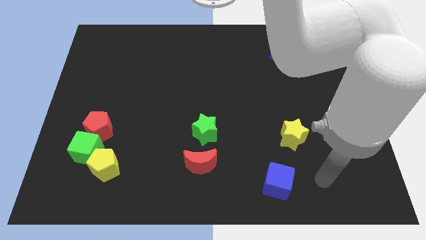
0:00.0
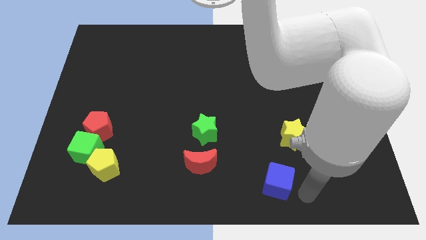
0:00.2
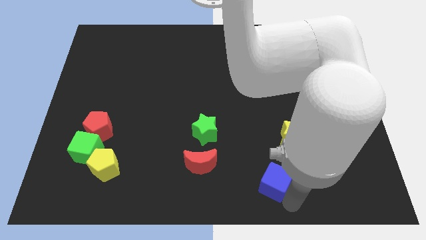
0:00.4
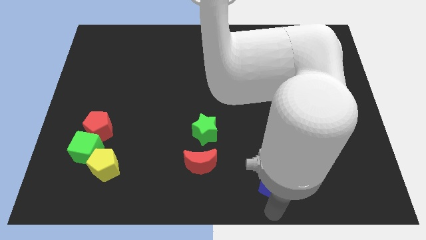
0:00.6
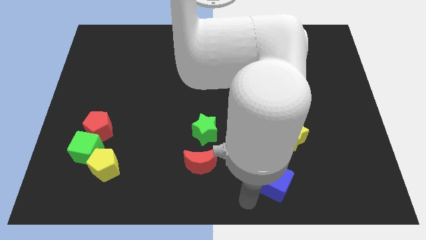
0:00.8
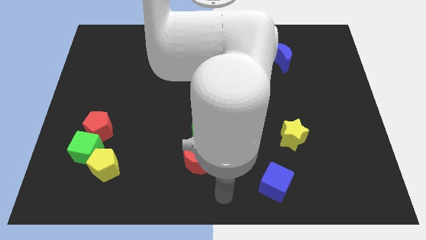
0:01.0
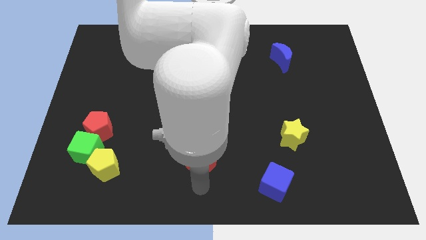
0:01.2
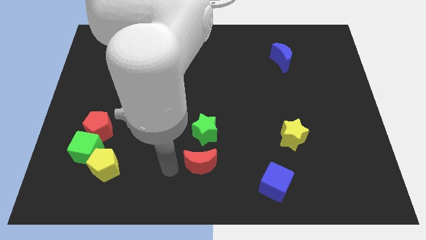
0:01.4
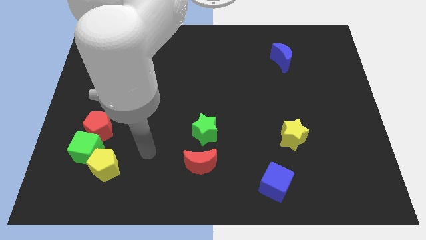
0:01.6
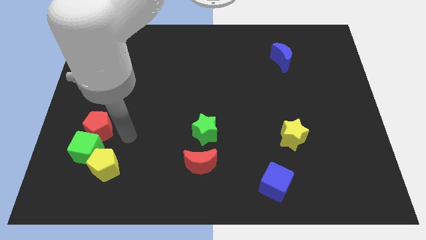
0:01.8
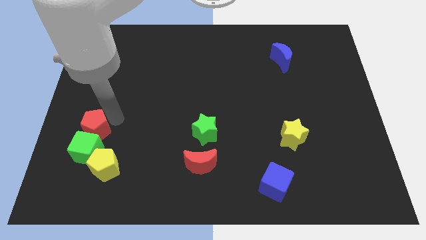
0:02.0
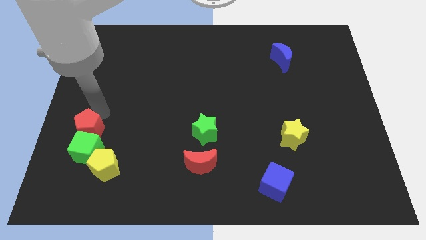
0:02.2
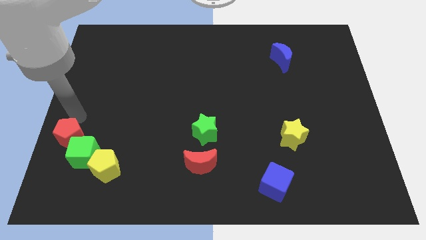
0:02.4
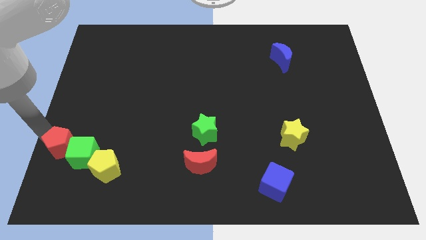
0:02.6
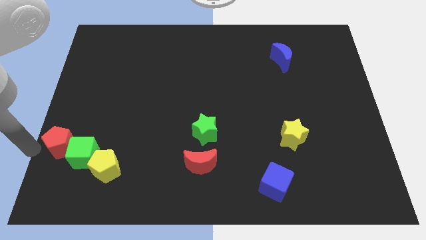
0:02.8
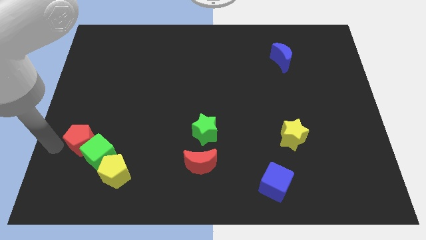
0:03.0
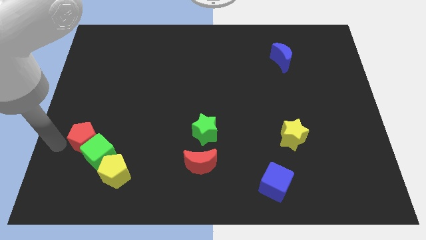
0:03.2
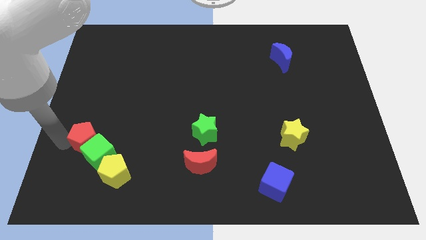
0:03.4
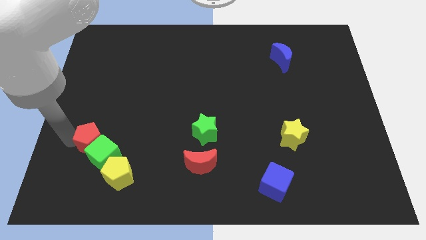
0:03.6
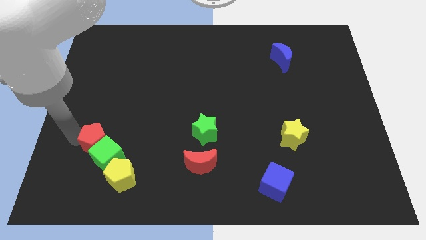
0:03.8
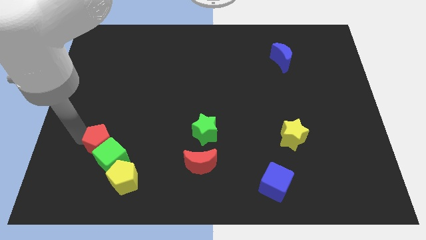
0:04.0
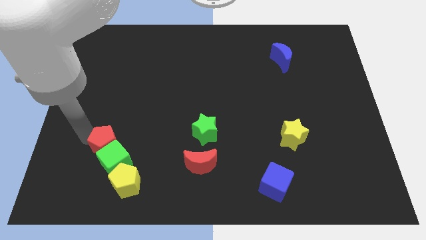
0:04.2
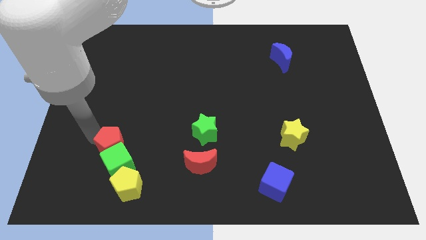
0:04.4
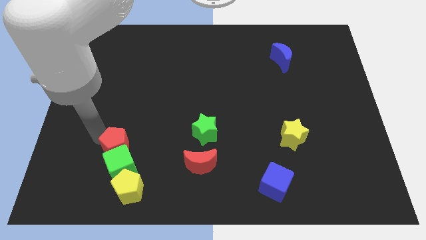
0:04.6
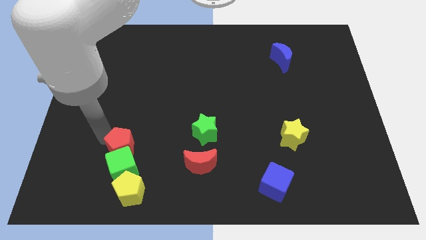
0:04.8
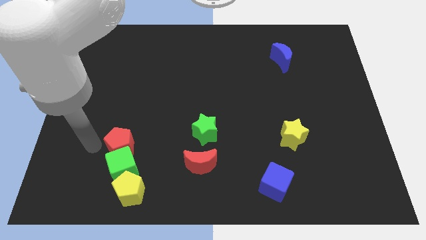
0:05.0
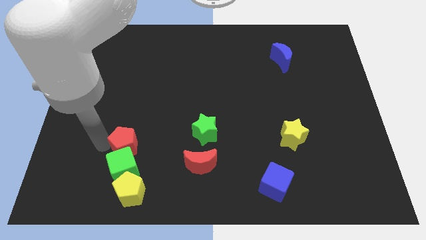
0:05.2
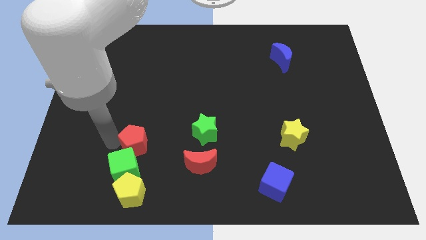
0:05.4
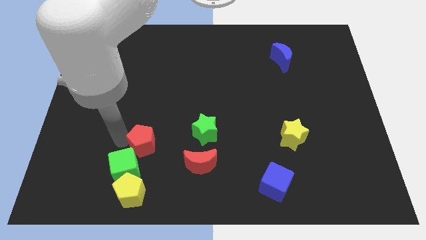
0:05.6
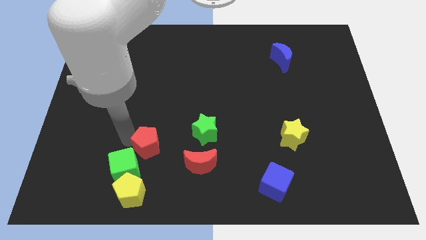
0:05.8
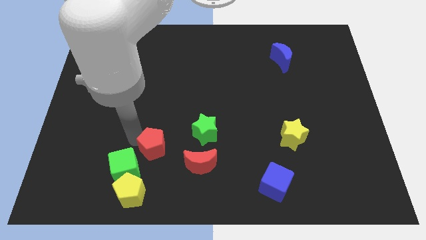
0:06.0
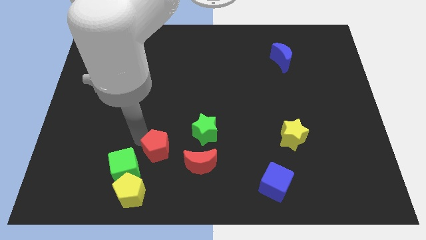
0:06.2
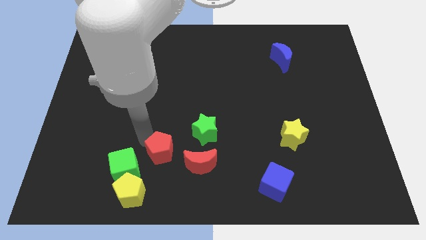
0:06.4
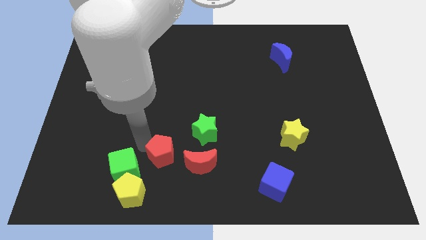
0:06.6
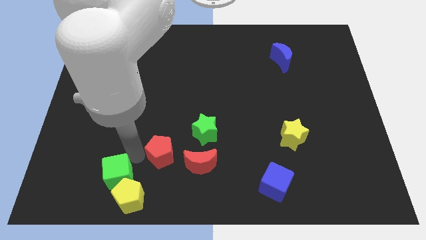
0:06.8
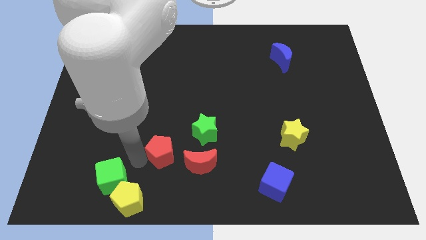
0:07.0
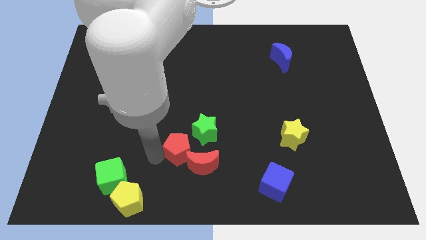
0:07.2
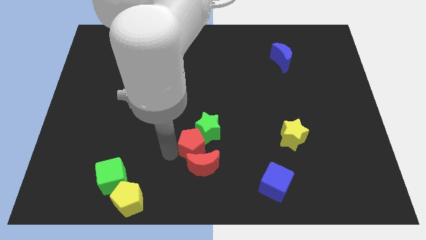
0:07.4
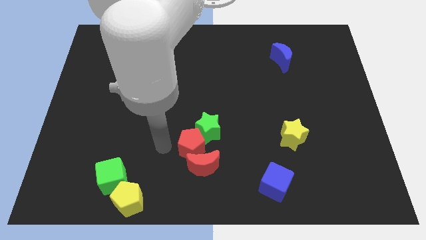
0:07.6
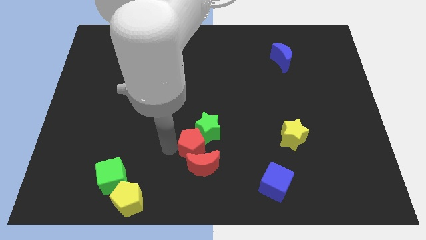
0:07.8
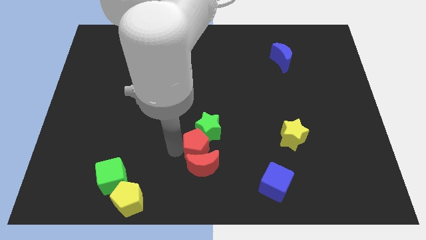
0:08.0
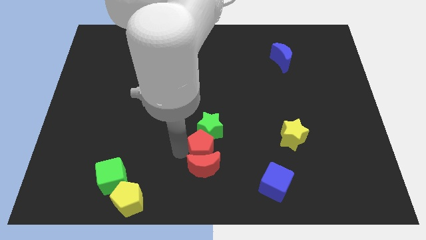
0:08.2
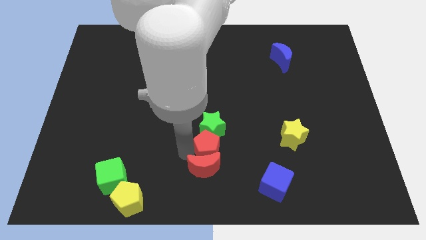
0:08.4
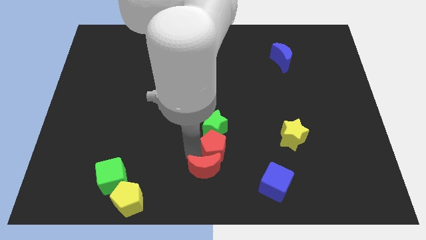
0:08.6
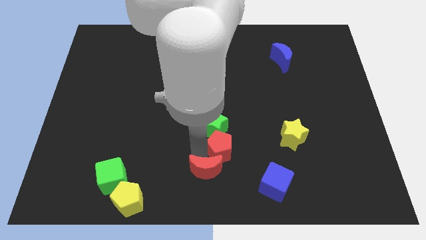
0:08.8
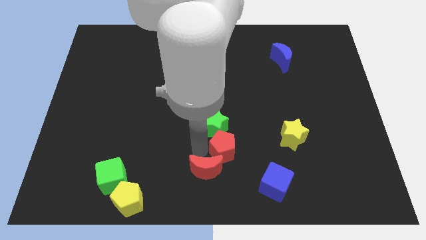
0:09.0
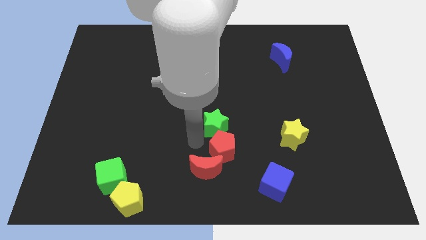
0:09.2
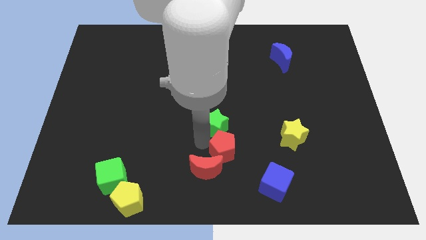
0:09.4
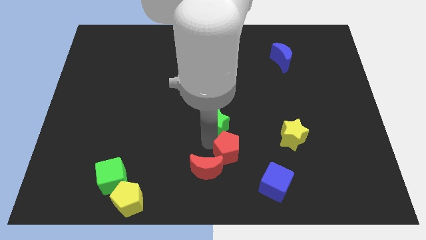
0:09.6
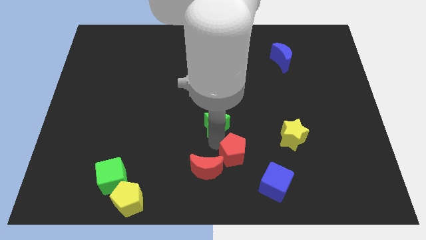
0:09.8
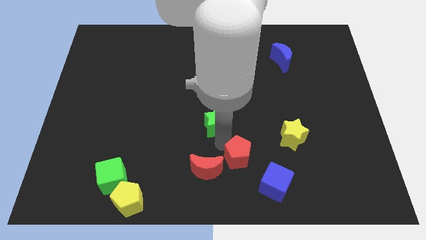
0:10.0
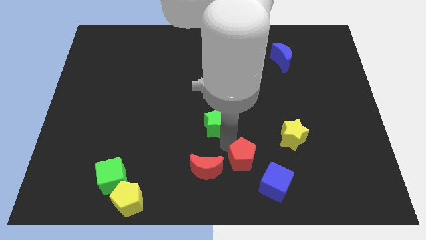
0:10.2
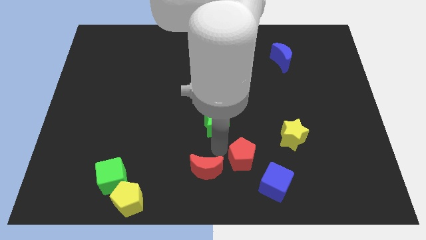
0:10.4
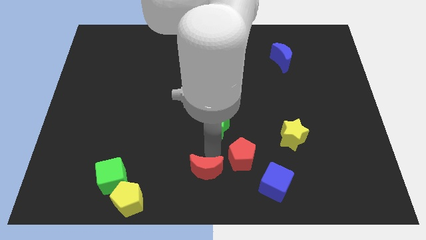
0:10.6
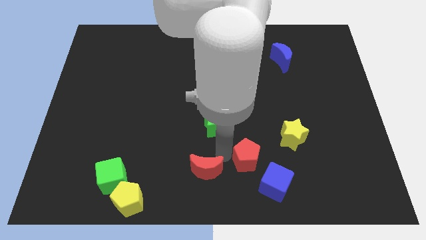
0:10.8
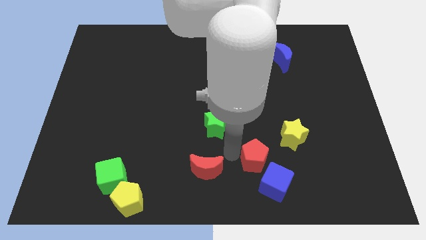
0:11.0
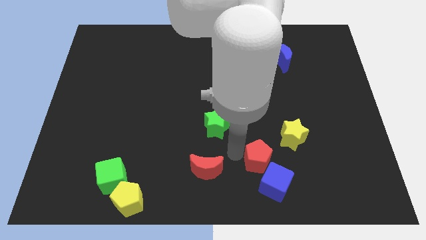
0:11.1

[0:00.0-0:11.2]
push the red pentagon close to the blue cube

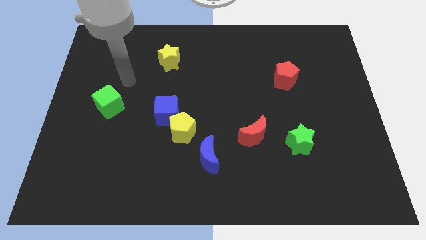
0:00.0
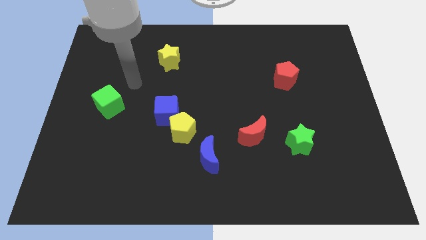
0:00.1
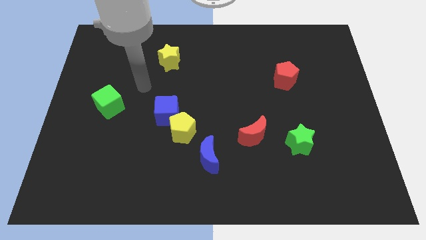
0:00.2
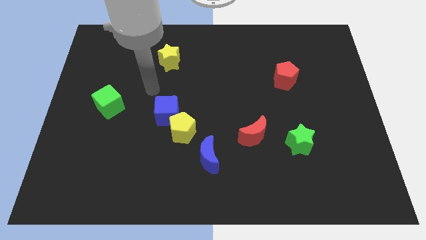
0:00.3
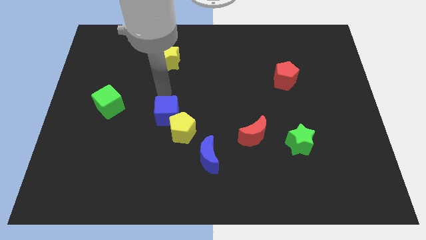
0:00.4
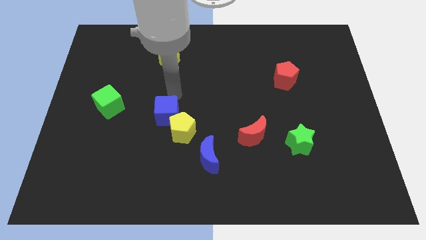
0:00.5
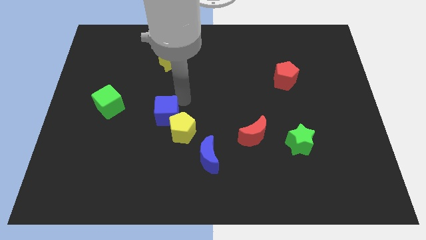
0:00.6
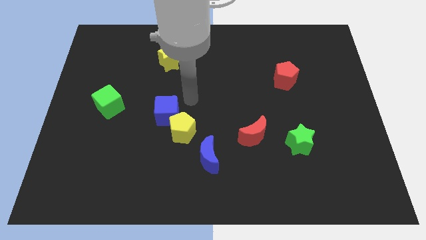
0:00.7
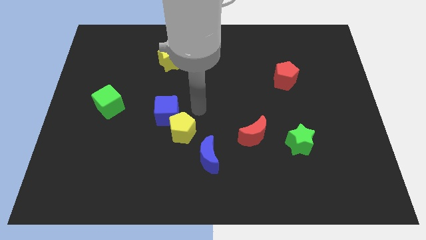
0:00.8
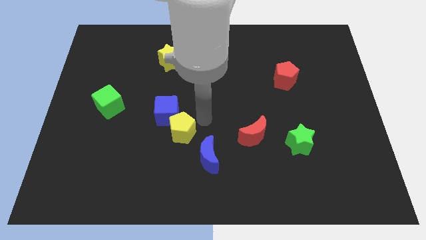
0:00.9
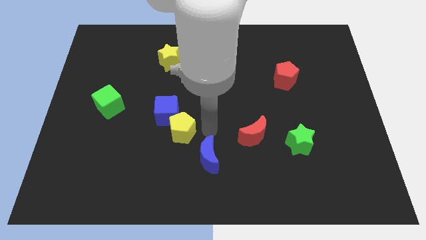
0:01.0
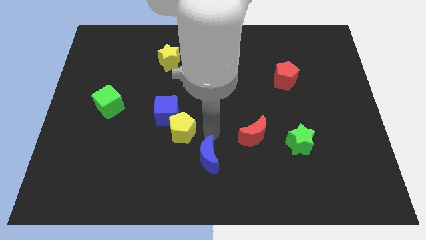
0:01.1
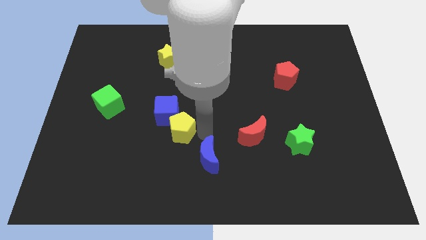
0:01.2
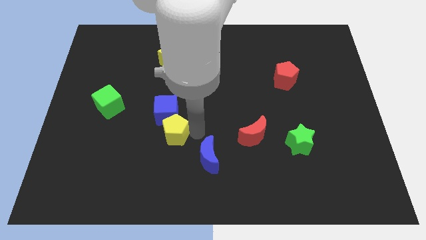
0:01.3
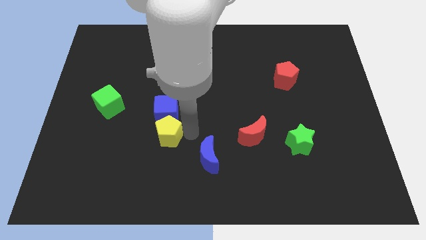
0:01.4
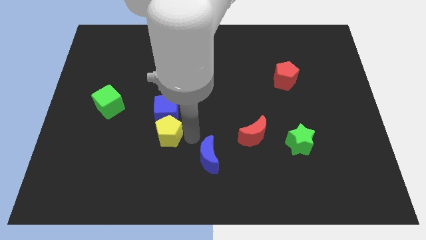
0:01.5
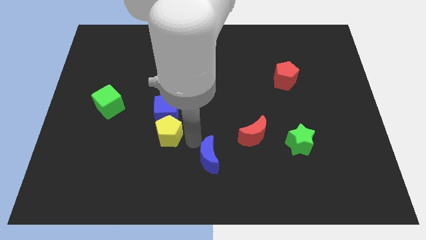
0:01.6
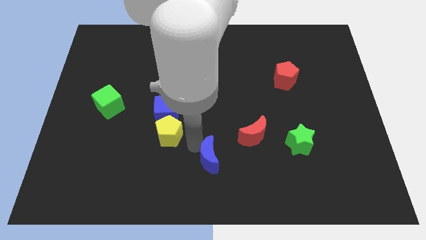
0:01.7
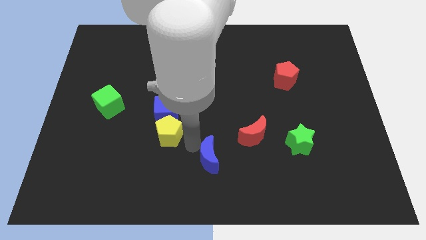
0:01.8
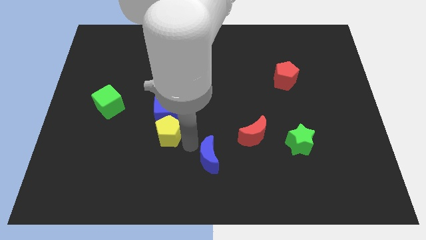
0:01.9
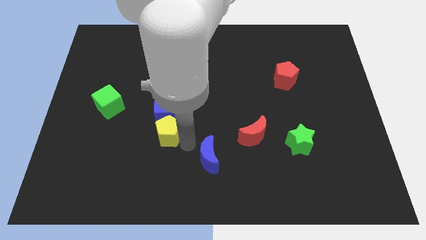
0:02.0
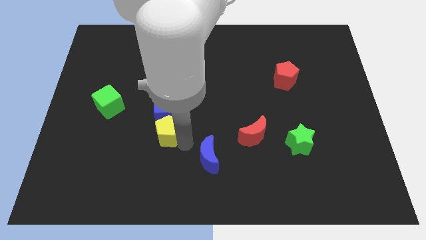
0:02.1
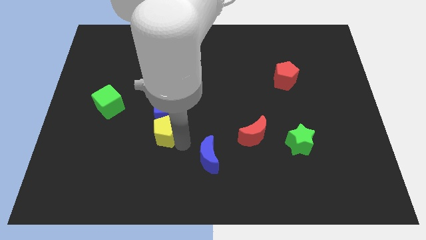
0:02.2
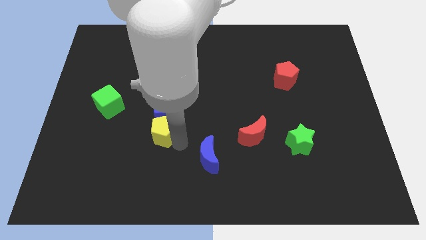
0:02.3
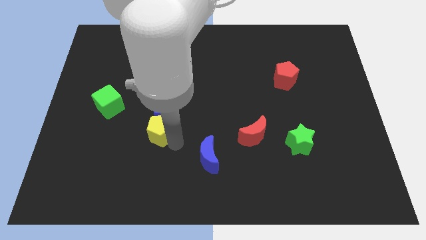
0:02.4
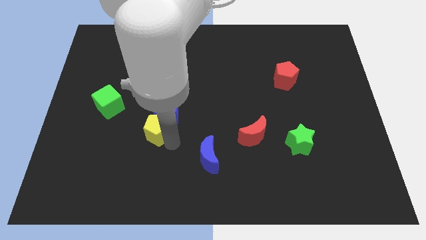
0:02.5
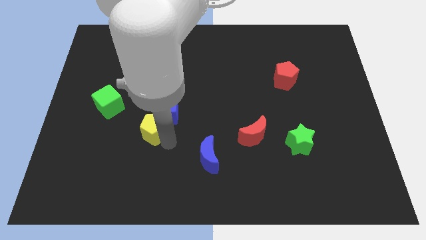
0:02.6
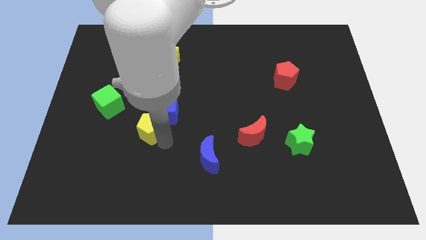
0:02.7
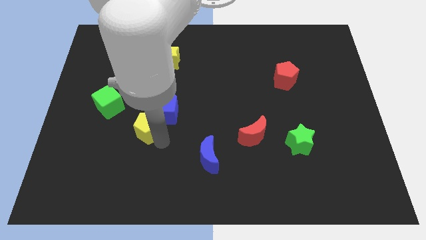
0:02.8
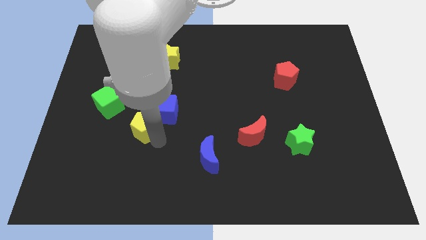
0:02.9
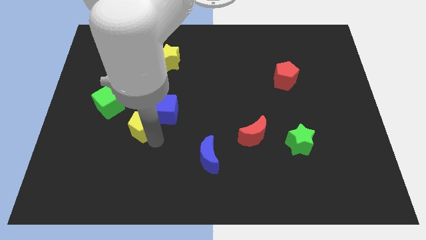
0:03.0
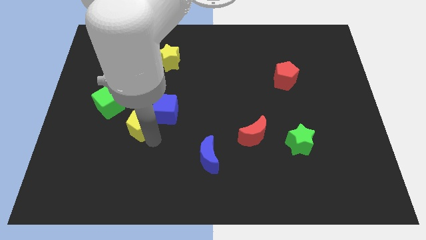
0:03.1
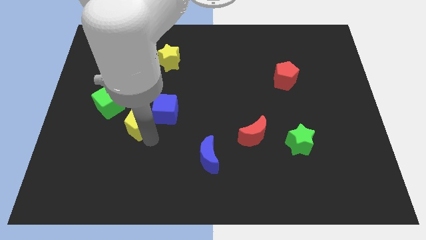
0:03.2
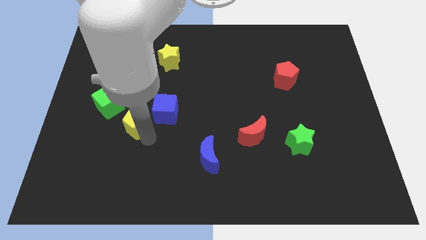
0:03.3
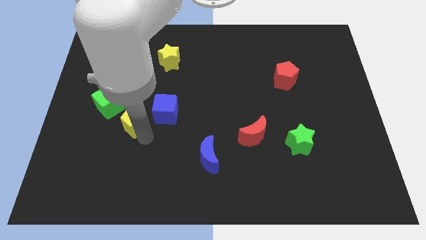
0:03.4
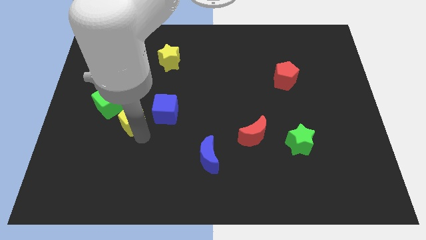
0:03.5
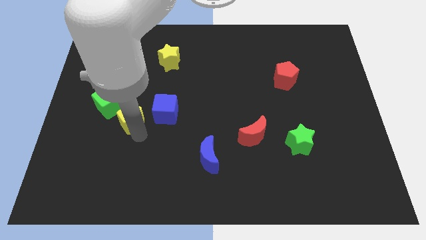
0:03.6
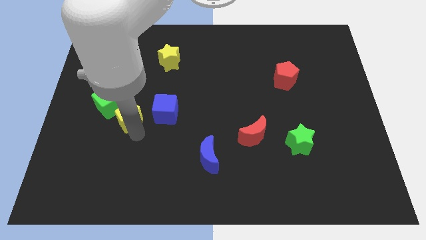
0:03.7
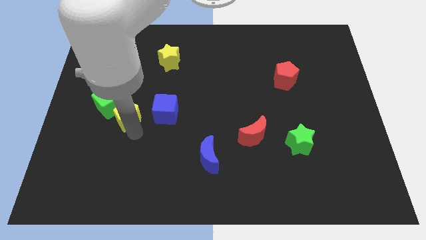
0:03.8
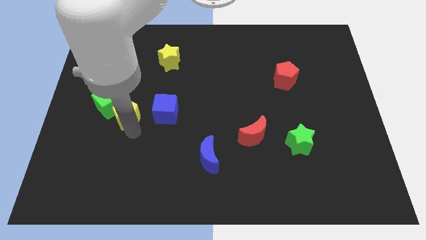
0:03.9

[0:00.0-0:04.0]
slide the yellow pentagon next to the green cube
